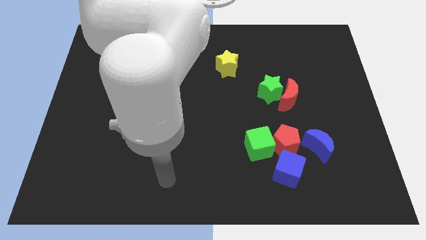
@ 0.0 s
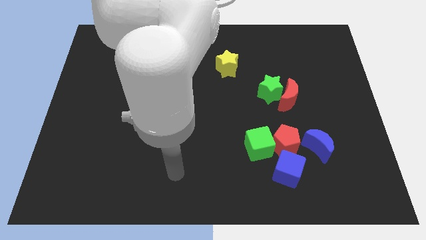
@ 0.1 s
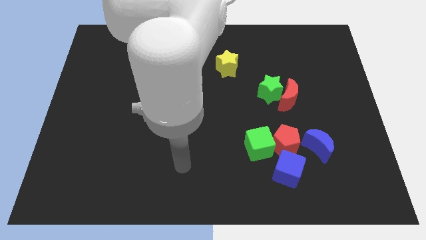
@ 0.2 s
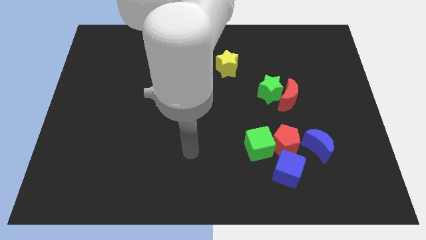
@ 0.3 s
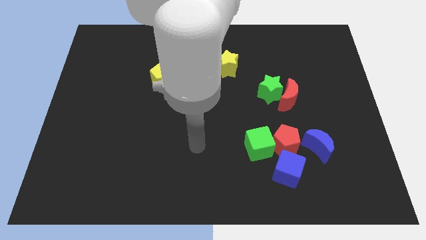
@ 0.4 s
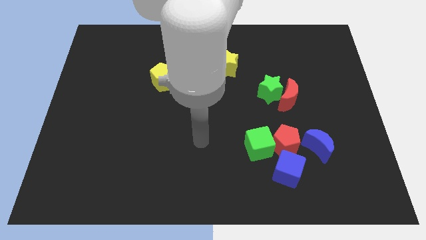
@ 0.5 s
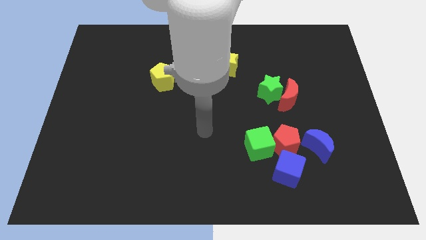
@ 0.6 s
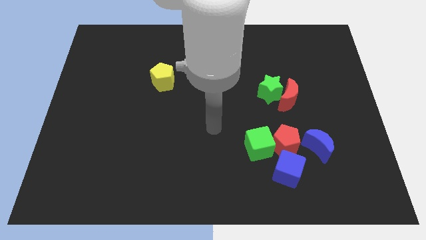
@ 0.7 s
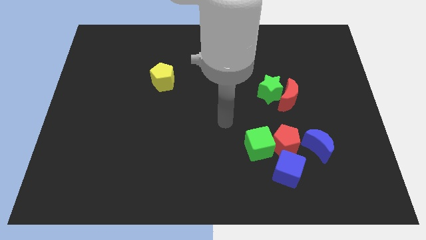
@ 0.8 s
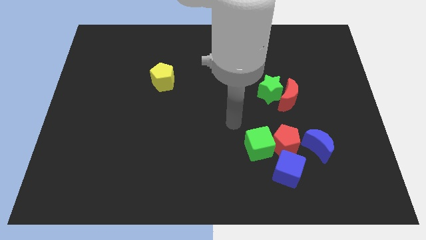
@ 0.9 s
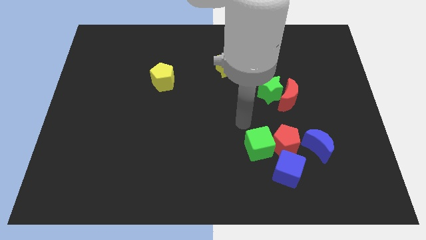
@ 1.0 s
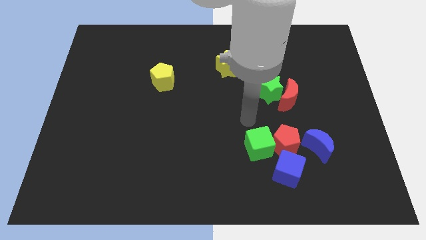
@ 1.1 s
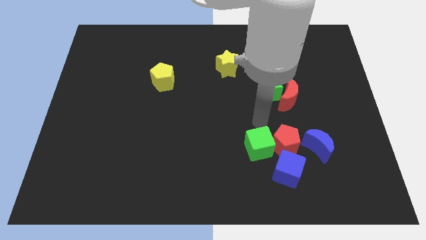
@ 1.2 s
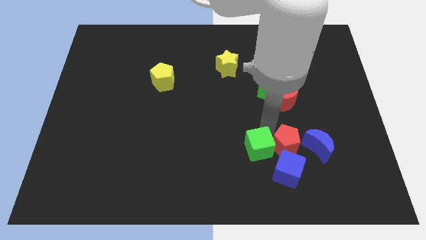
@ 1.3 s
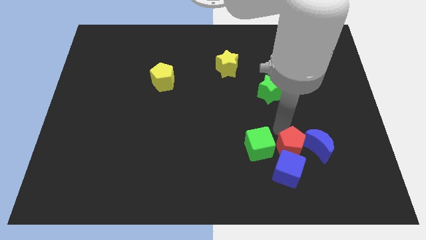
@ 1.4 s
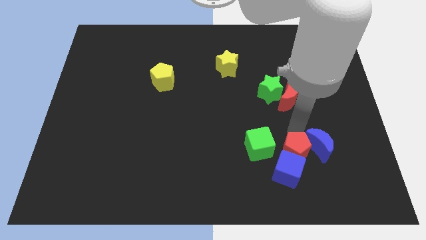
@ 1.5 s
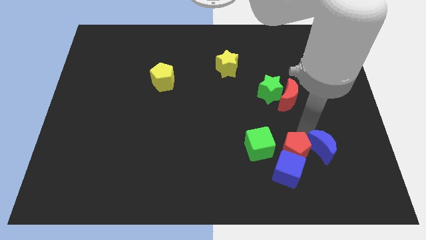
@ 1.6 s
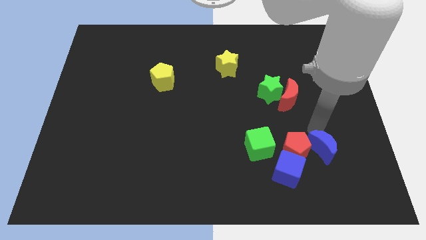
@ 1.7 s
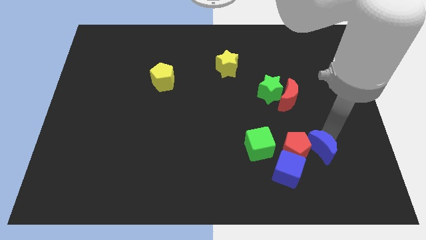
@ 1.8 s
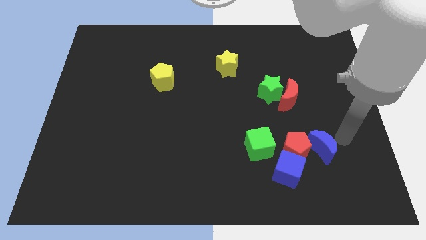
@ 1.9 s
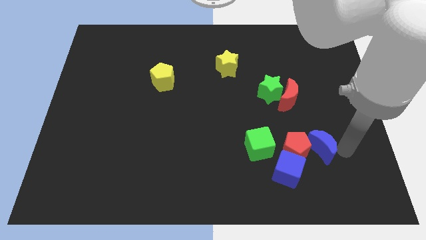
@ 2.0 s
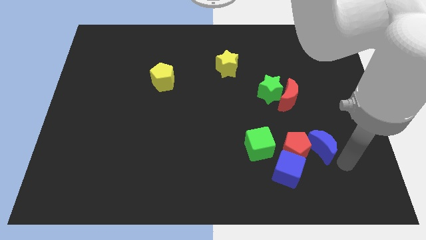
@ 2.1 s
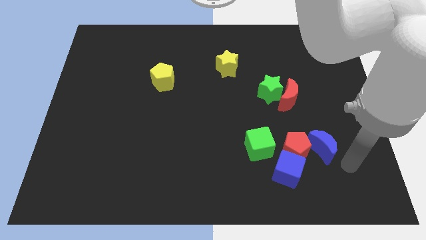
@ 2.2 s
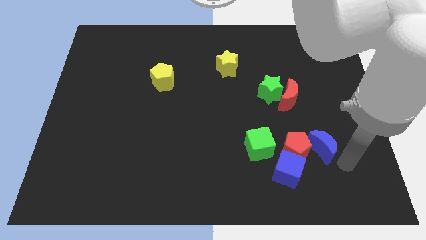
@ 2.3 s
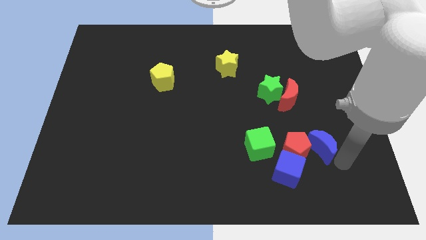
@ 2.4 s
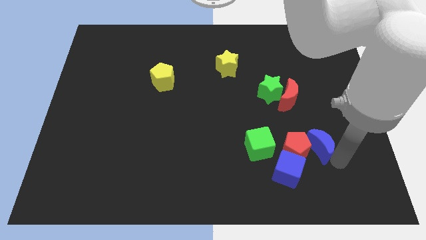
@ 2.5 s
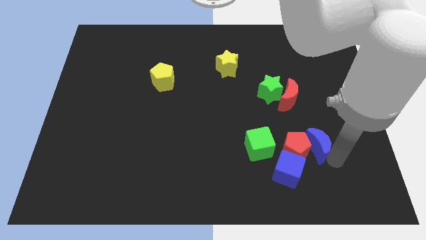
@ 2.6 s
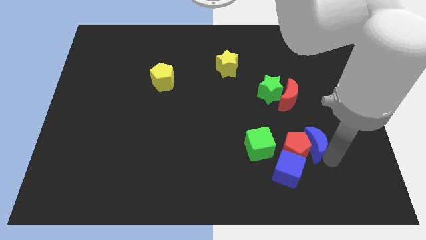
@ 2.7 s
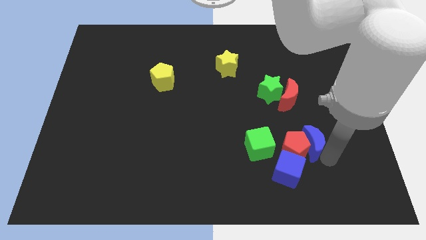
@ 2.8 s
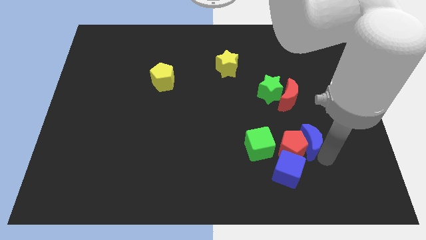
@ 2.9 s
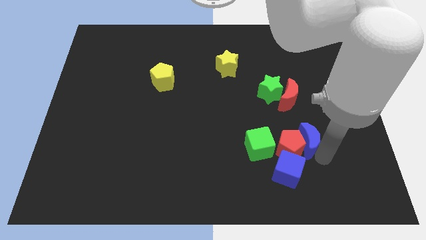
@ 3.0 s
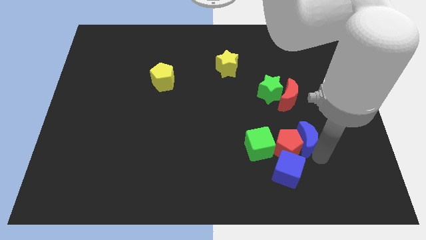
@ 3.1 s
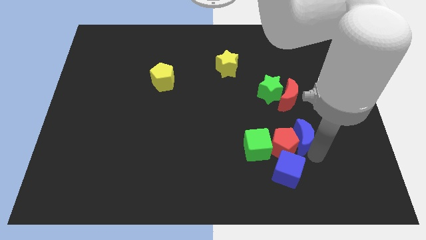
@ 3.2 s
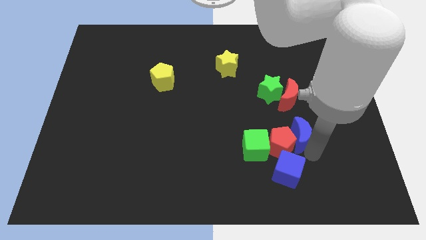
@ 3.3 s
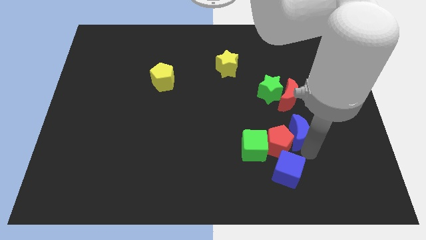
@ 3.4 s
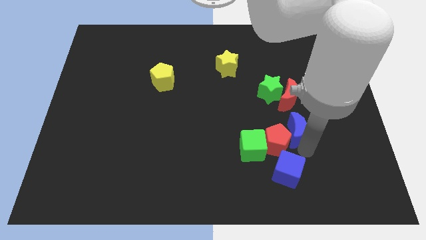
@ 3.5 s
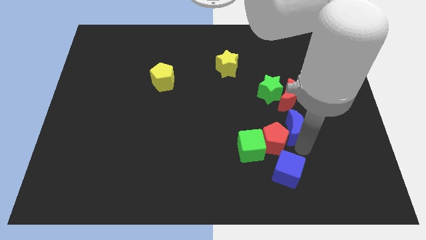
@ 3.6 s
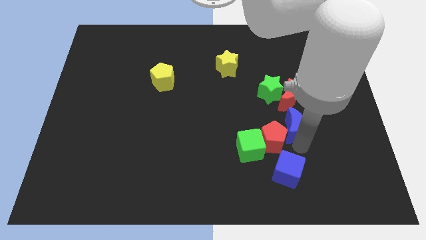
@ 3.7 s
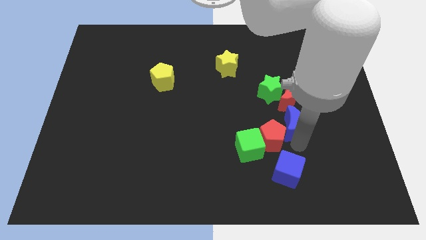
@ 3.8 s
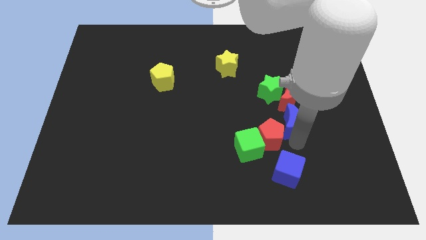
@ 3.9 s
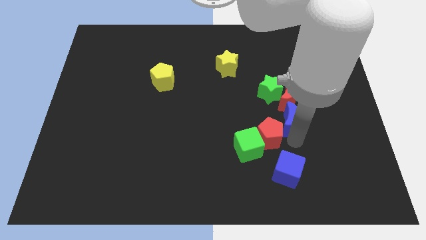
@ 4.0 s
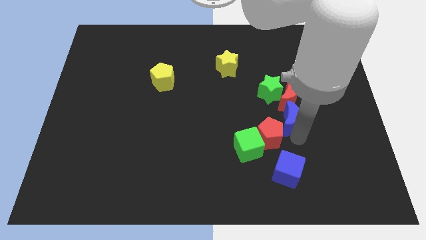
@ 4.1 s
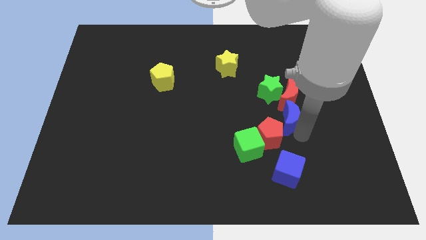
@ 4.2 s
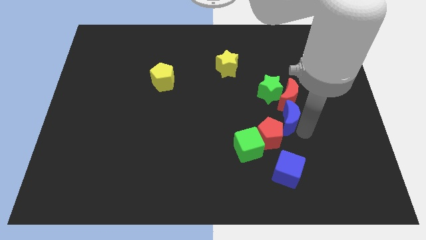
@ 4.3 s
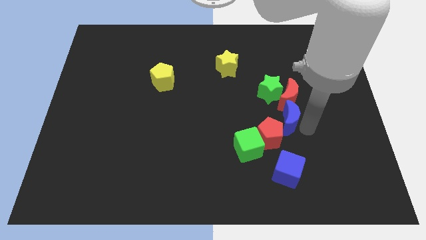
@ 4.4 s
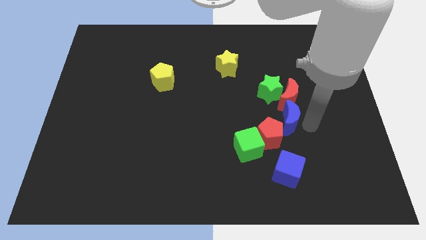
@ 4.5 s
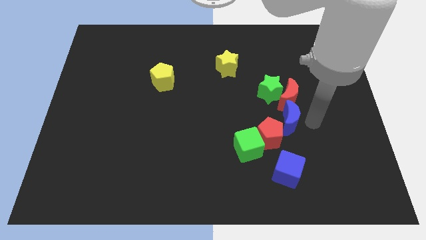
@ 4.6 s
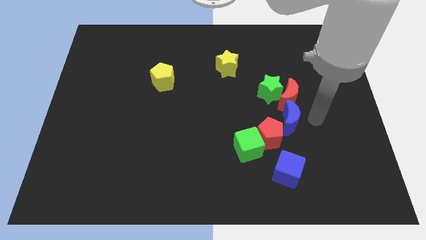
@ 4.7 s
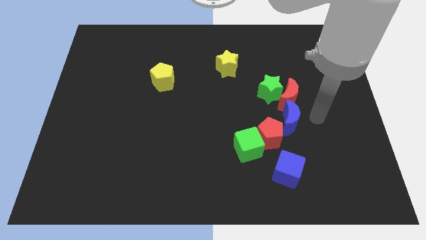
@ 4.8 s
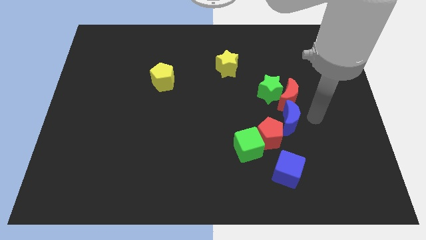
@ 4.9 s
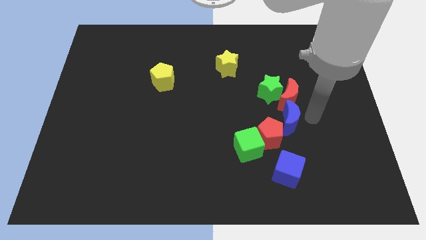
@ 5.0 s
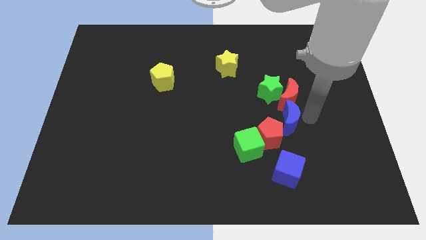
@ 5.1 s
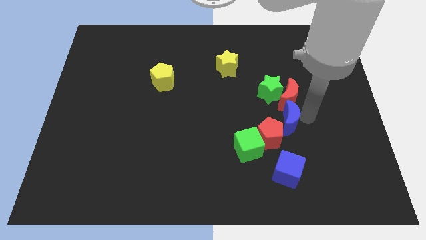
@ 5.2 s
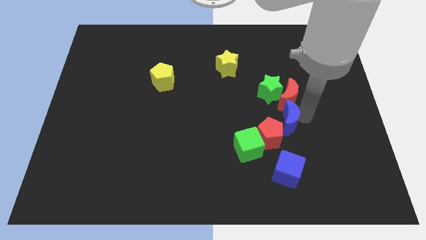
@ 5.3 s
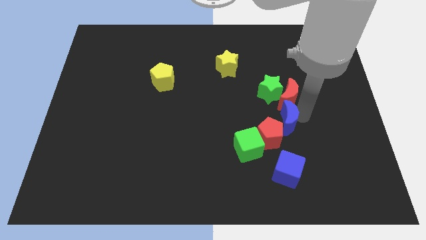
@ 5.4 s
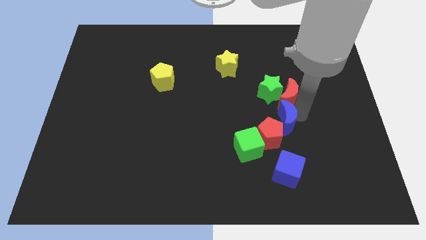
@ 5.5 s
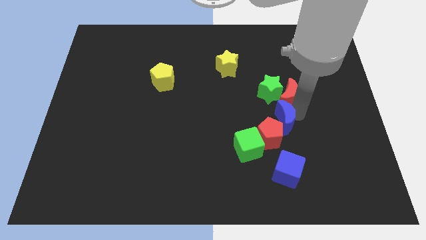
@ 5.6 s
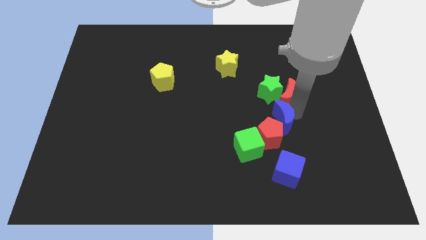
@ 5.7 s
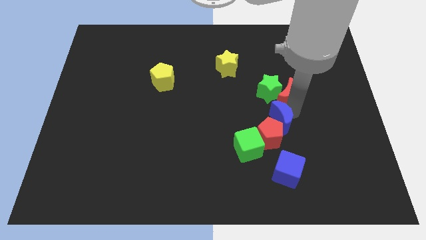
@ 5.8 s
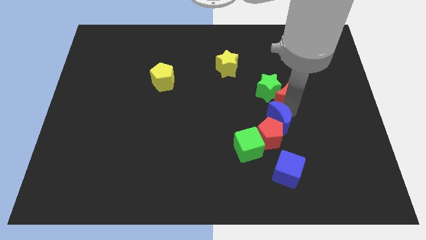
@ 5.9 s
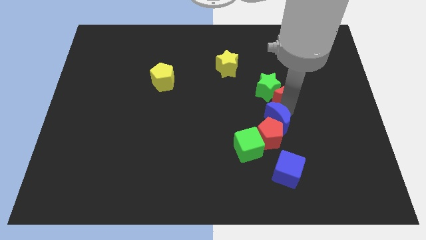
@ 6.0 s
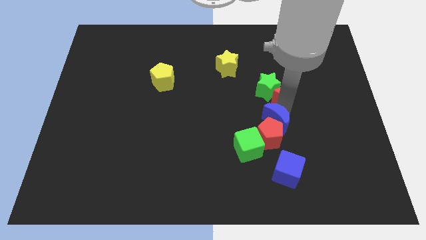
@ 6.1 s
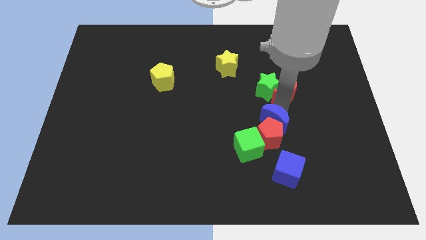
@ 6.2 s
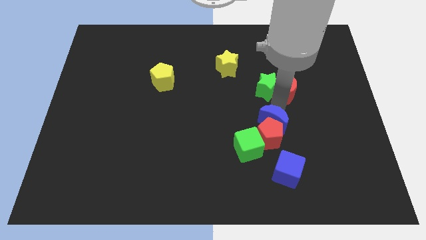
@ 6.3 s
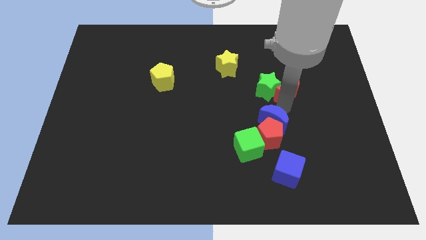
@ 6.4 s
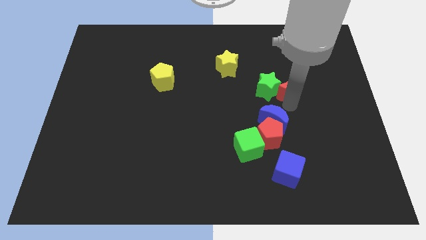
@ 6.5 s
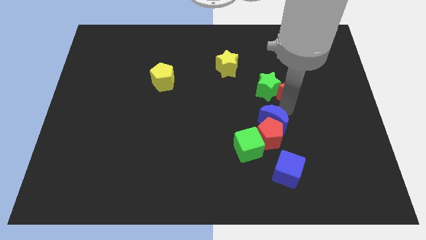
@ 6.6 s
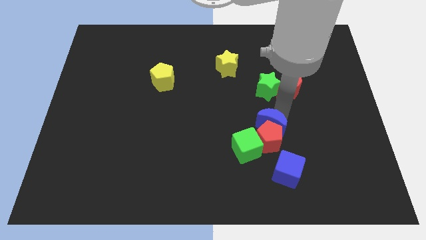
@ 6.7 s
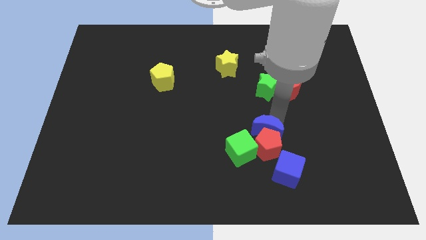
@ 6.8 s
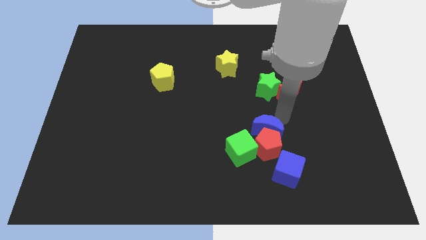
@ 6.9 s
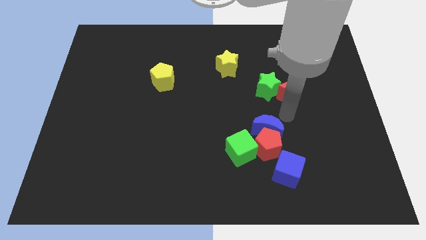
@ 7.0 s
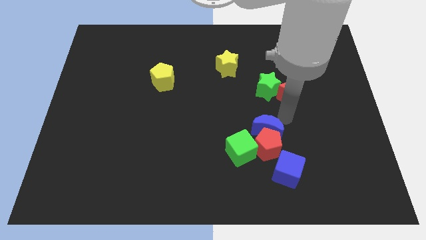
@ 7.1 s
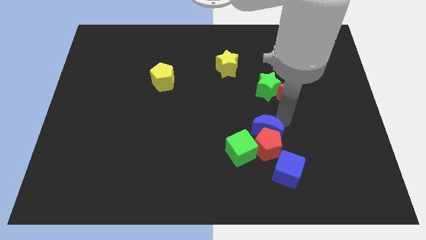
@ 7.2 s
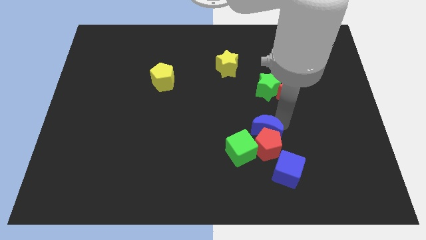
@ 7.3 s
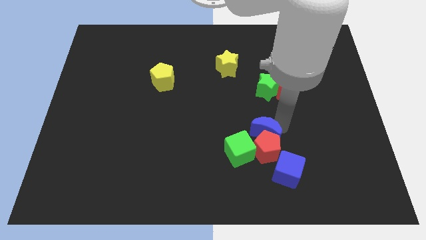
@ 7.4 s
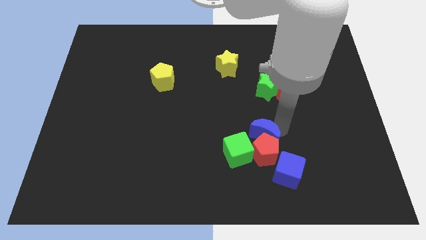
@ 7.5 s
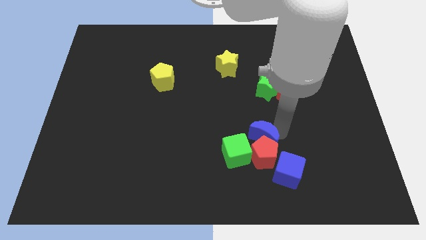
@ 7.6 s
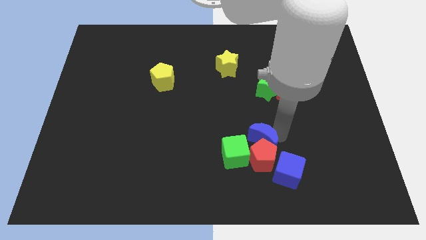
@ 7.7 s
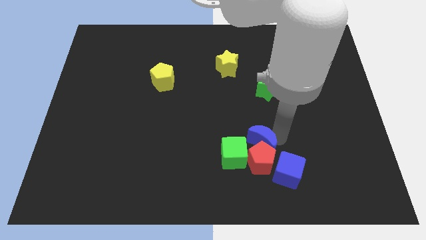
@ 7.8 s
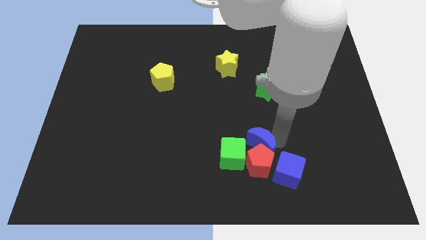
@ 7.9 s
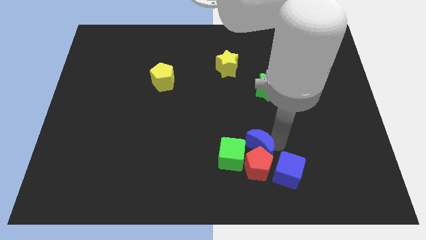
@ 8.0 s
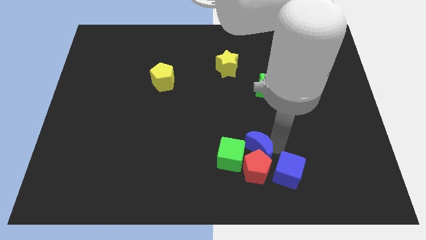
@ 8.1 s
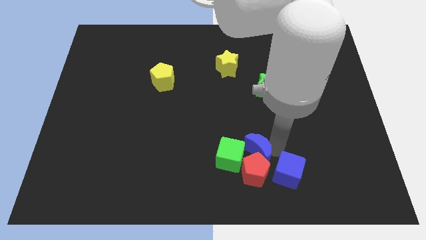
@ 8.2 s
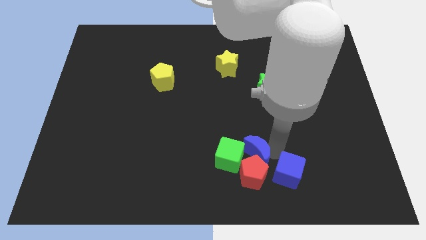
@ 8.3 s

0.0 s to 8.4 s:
put the blue moon close to the green cube
